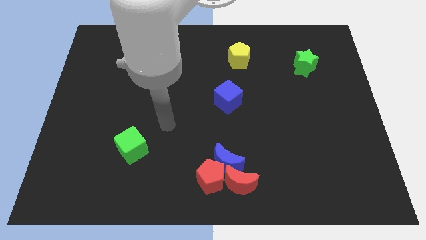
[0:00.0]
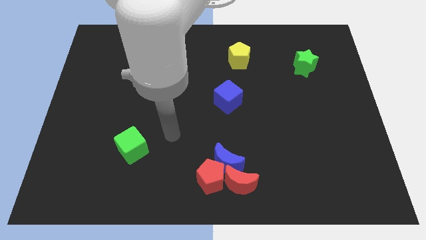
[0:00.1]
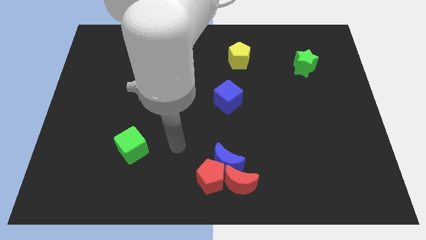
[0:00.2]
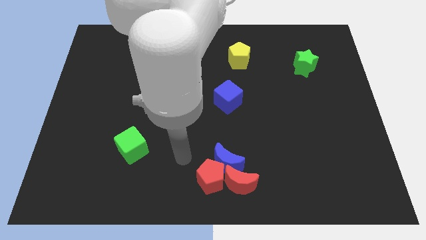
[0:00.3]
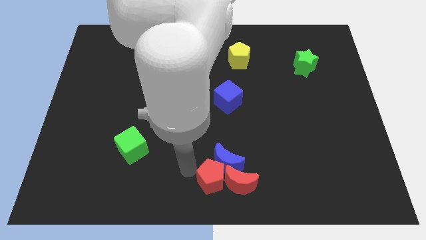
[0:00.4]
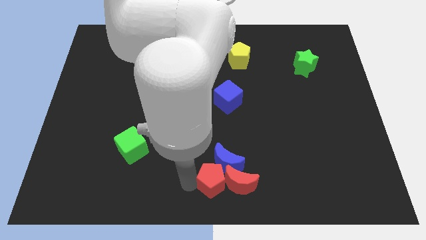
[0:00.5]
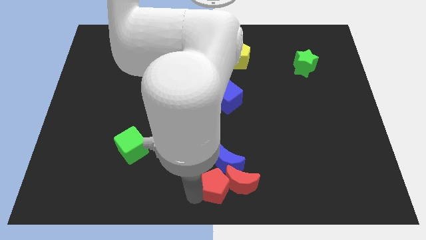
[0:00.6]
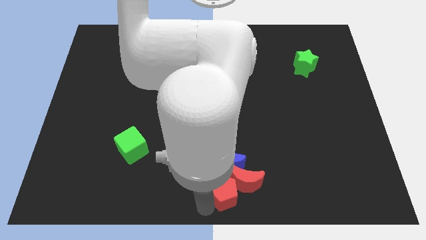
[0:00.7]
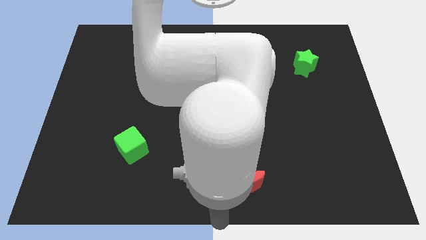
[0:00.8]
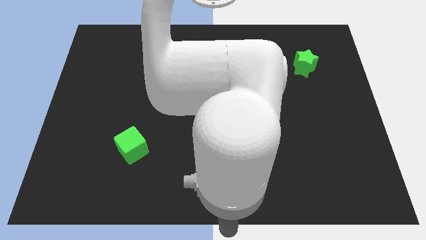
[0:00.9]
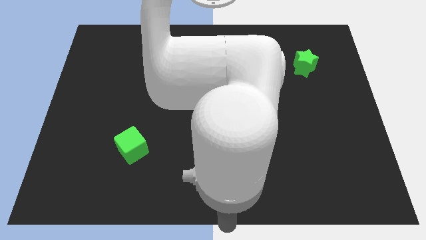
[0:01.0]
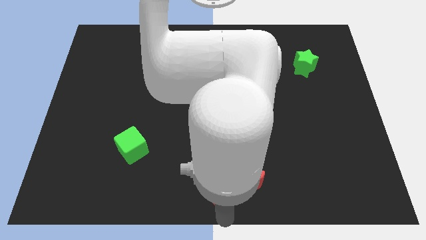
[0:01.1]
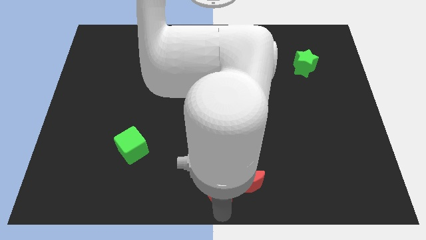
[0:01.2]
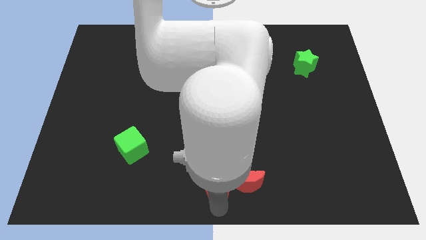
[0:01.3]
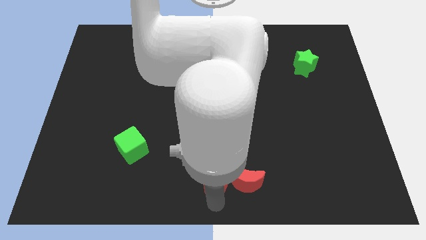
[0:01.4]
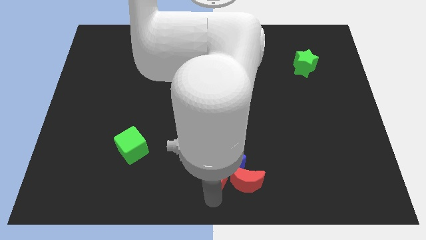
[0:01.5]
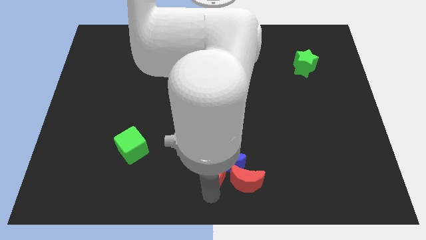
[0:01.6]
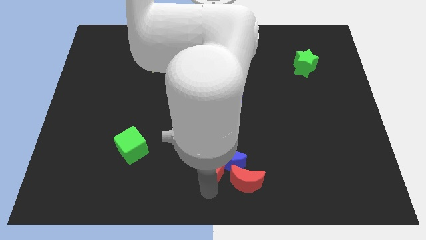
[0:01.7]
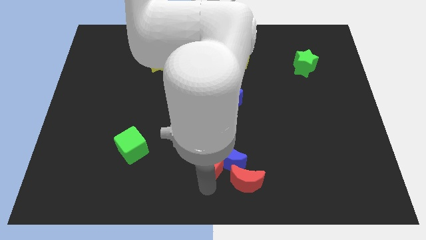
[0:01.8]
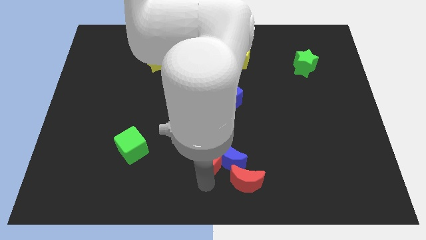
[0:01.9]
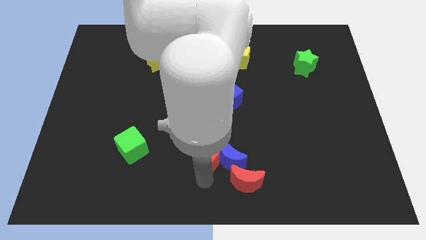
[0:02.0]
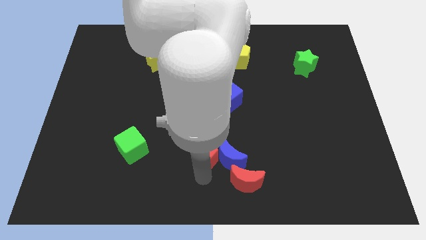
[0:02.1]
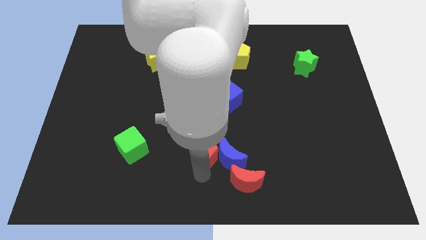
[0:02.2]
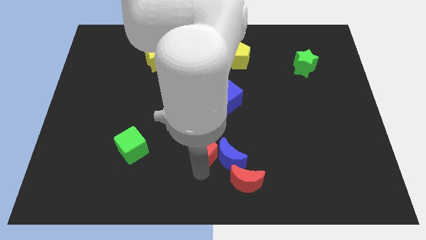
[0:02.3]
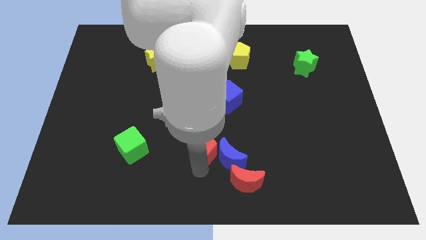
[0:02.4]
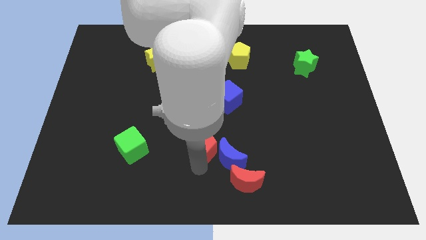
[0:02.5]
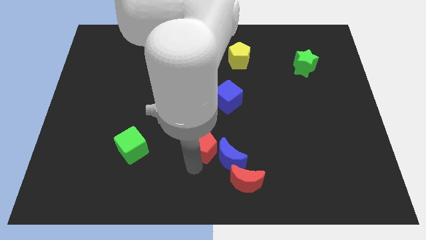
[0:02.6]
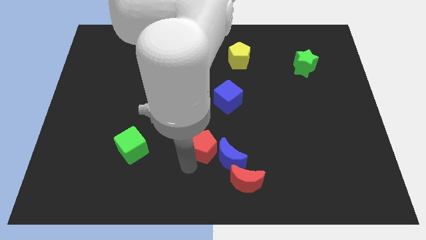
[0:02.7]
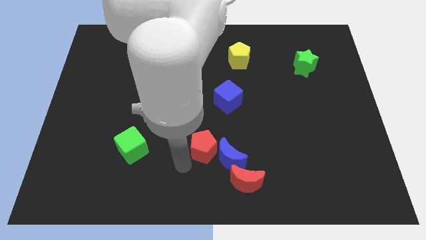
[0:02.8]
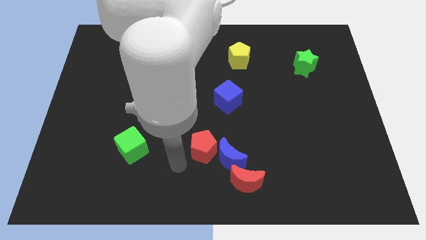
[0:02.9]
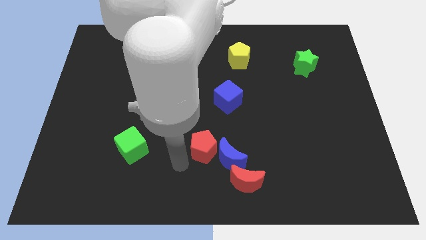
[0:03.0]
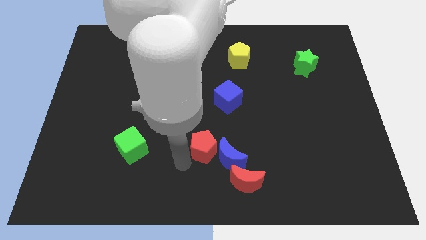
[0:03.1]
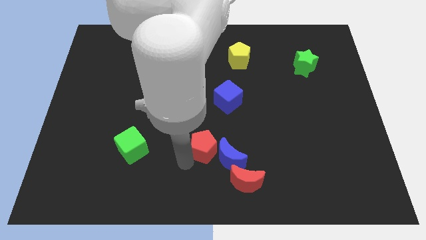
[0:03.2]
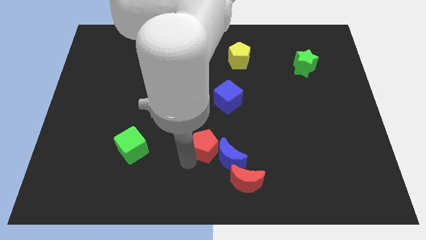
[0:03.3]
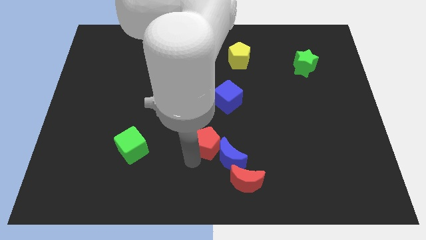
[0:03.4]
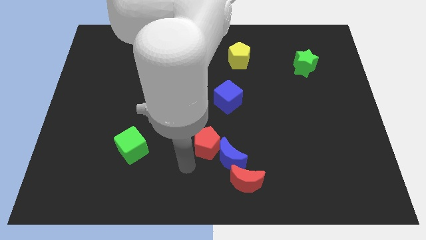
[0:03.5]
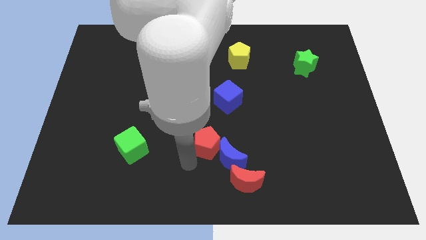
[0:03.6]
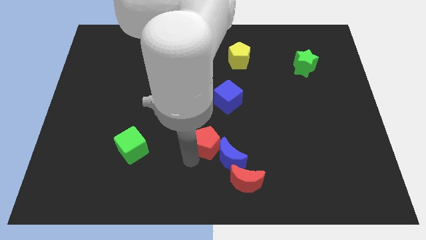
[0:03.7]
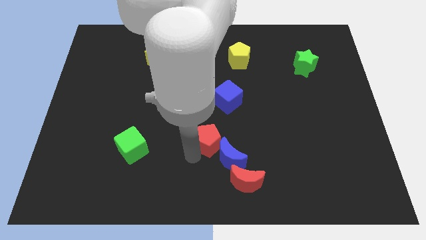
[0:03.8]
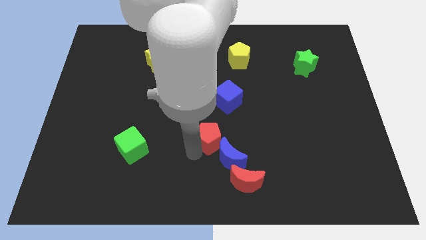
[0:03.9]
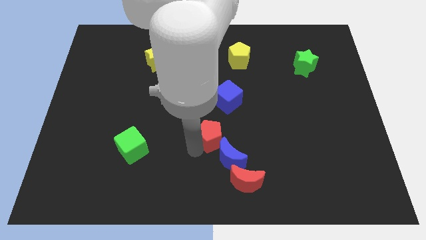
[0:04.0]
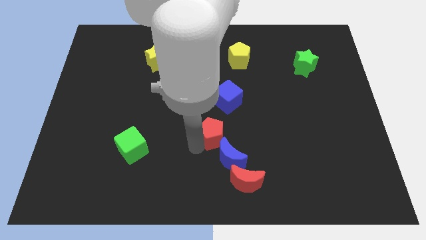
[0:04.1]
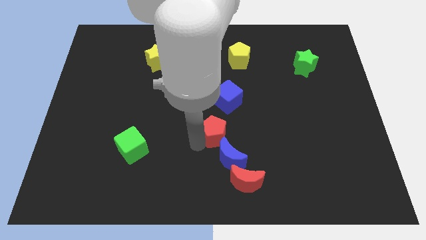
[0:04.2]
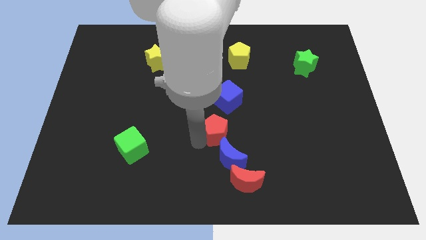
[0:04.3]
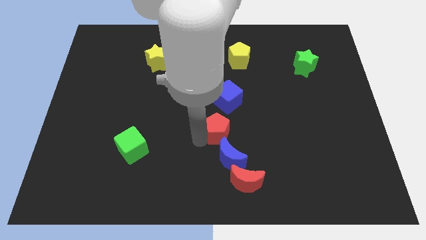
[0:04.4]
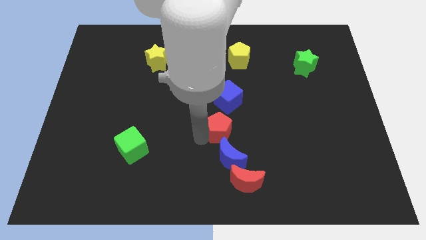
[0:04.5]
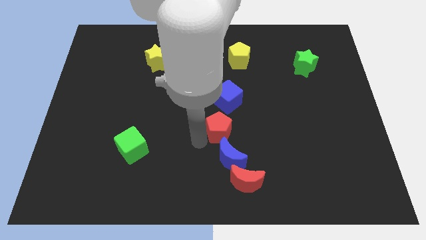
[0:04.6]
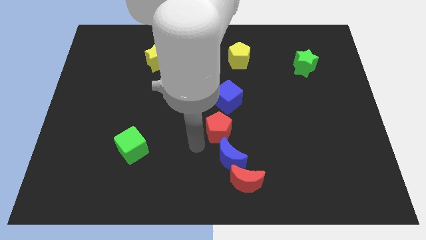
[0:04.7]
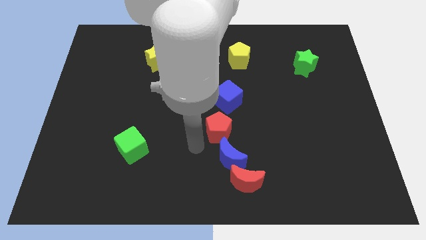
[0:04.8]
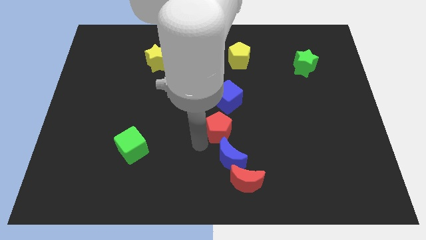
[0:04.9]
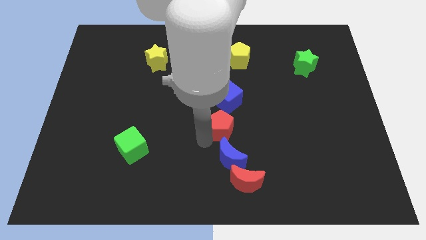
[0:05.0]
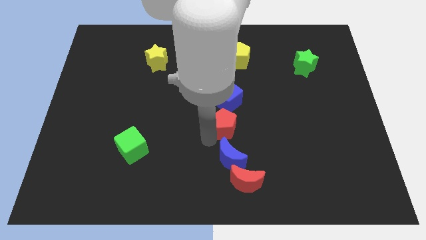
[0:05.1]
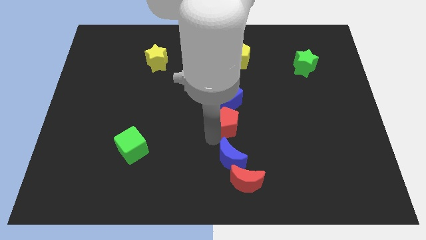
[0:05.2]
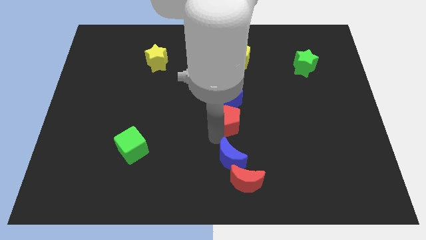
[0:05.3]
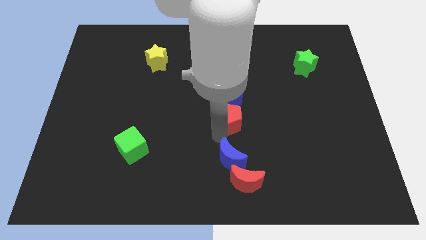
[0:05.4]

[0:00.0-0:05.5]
put the red pentagon close to the blue cube

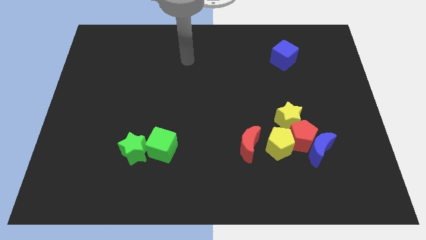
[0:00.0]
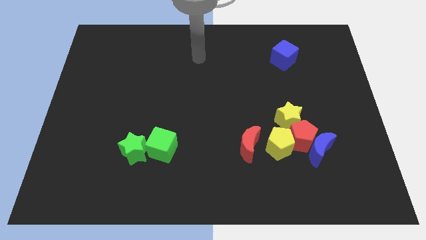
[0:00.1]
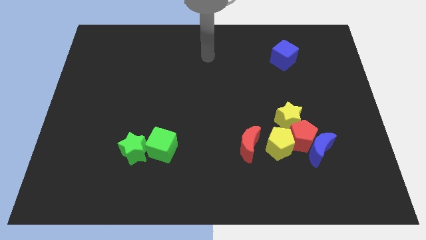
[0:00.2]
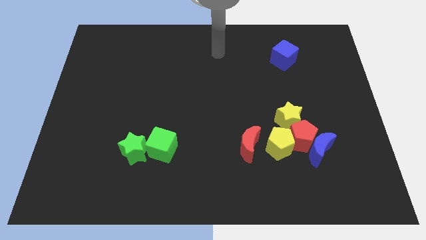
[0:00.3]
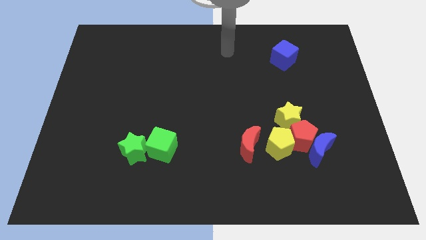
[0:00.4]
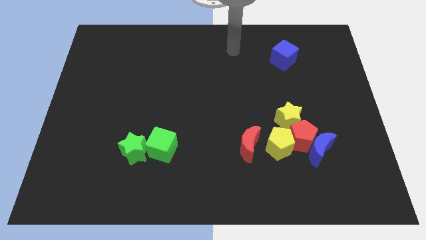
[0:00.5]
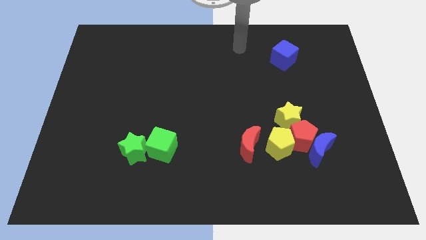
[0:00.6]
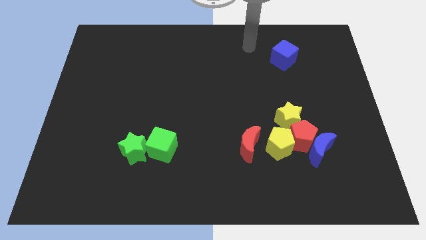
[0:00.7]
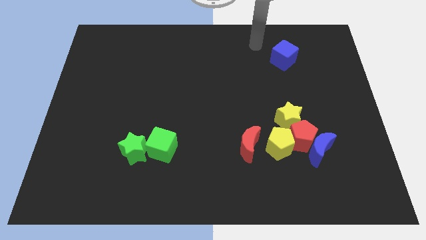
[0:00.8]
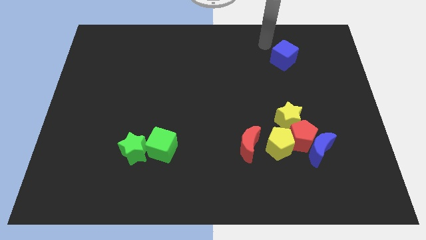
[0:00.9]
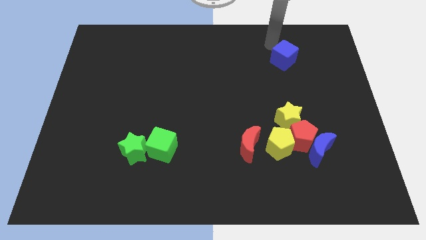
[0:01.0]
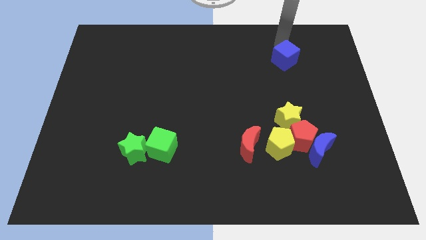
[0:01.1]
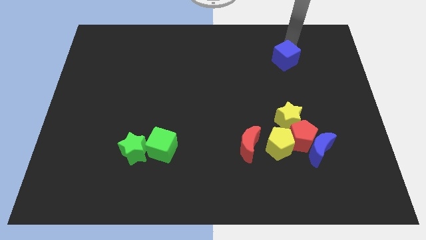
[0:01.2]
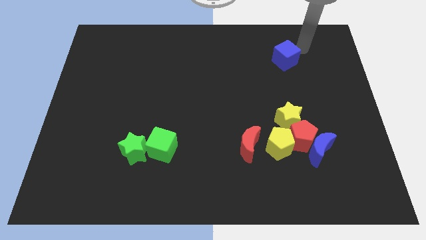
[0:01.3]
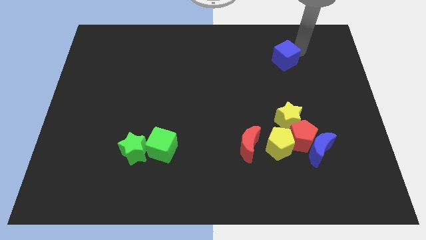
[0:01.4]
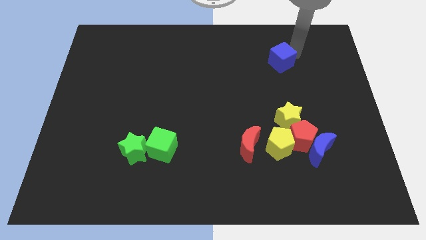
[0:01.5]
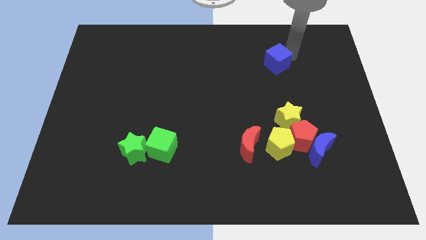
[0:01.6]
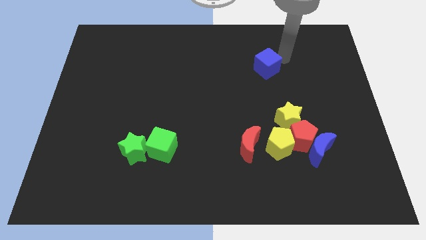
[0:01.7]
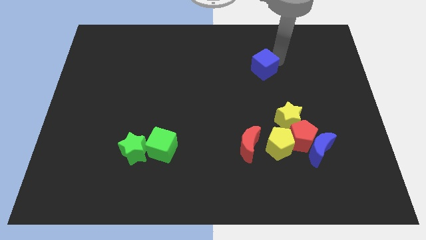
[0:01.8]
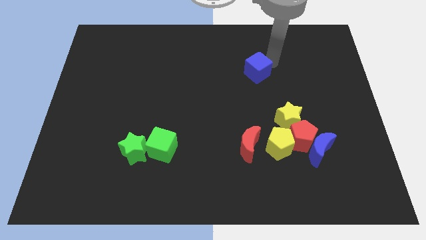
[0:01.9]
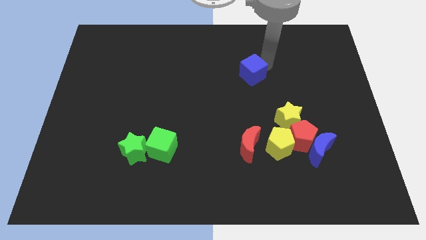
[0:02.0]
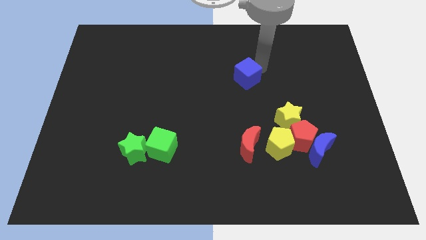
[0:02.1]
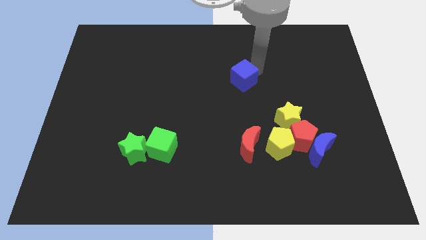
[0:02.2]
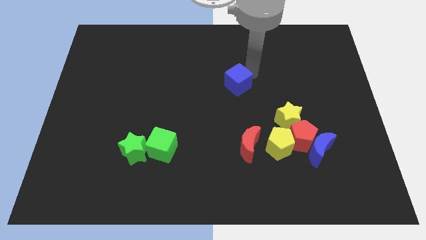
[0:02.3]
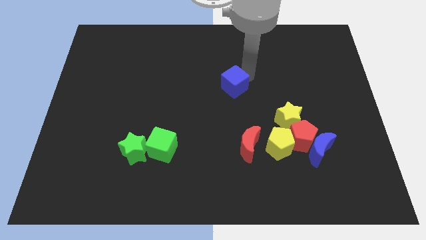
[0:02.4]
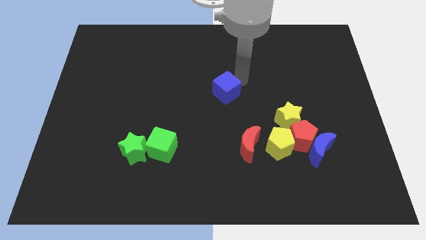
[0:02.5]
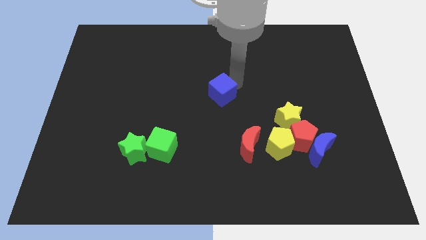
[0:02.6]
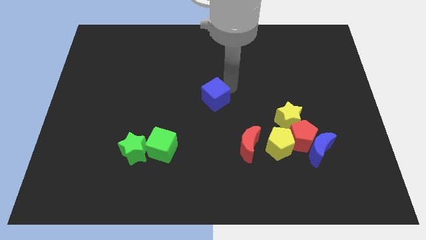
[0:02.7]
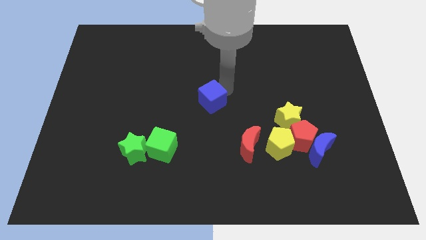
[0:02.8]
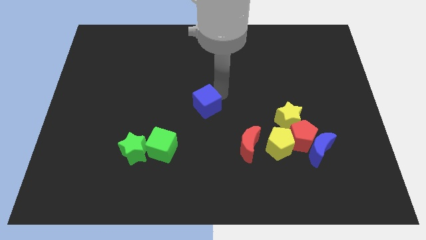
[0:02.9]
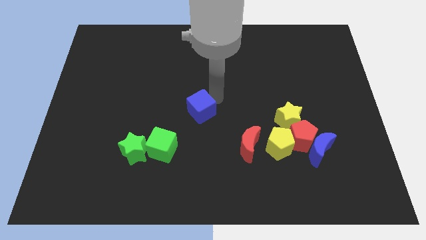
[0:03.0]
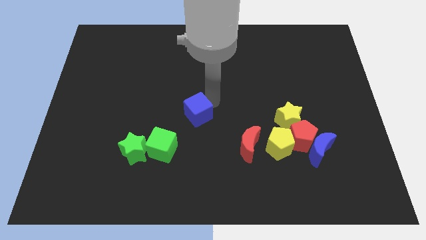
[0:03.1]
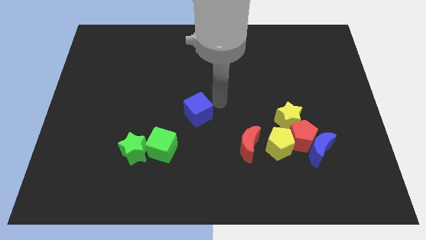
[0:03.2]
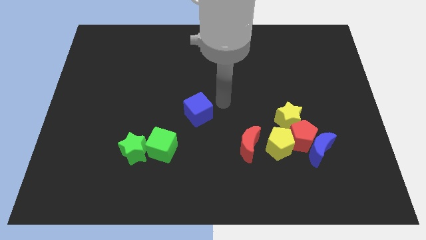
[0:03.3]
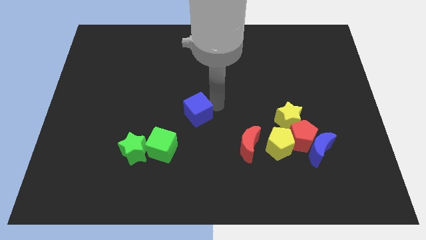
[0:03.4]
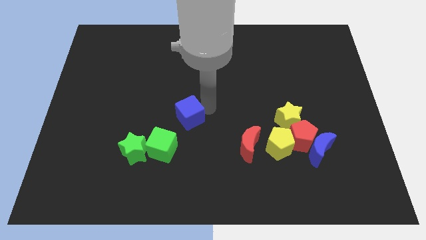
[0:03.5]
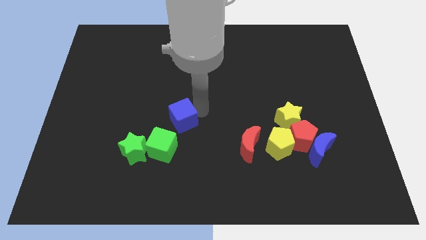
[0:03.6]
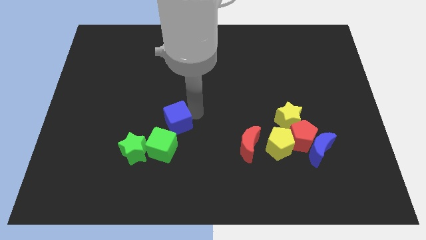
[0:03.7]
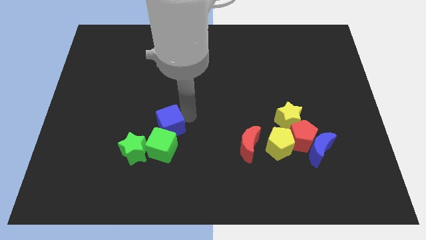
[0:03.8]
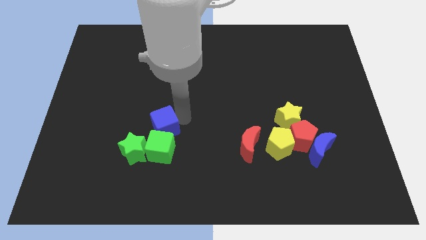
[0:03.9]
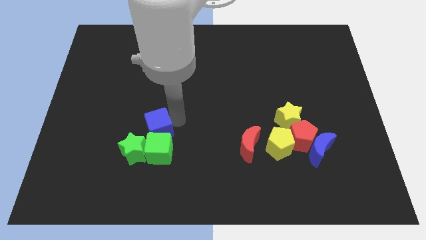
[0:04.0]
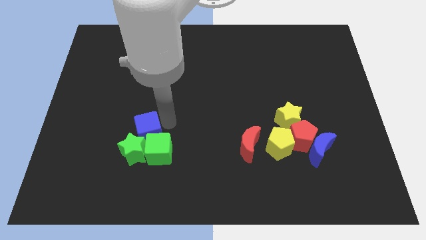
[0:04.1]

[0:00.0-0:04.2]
slide the blue cube towards the green star
